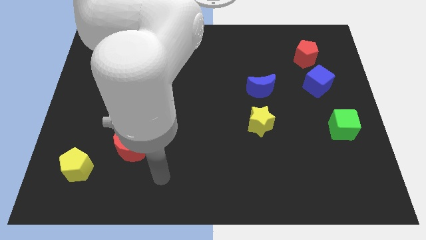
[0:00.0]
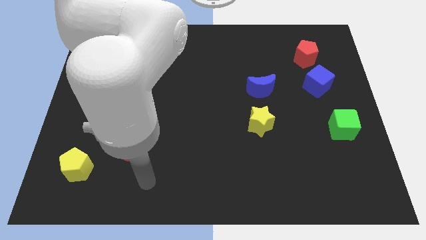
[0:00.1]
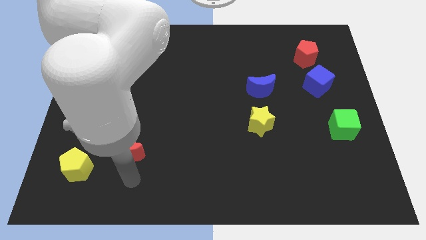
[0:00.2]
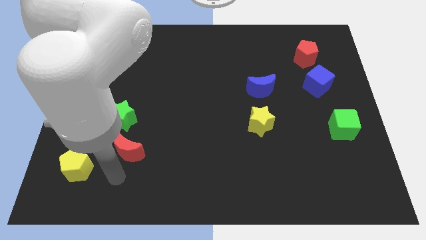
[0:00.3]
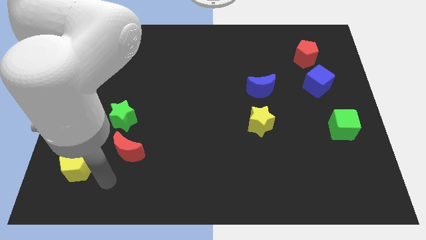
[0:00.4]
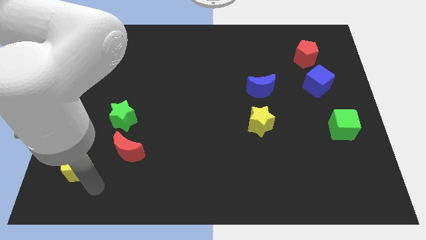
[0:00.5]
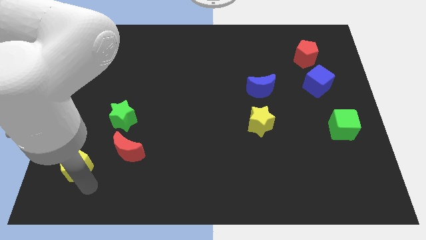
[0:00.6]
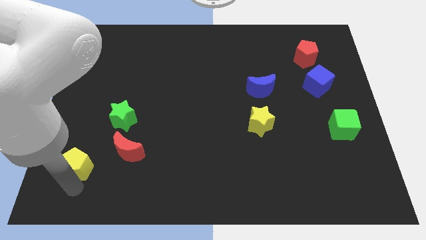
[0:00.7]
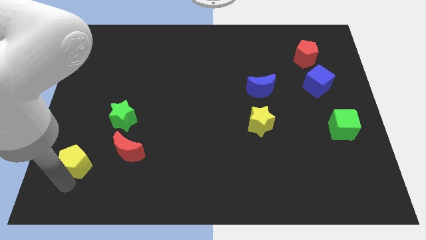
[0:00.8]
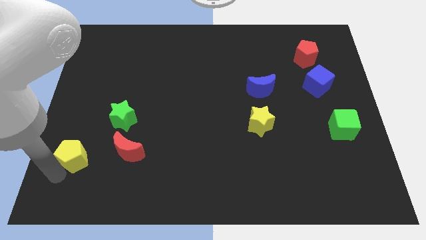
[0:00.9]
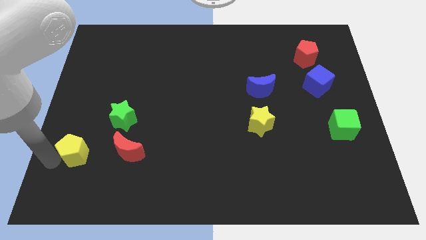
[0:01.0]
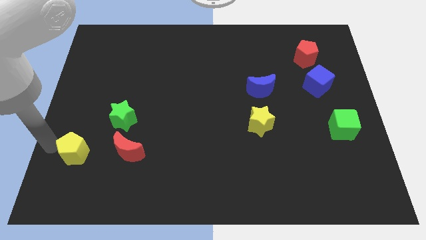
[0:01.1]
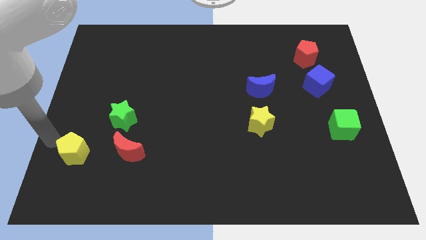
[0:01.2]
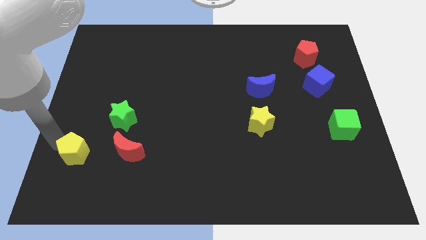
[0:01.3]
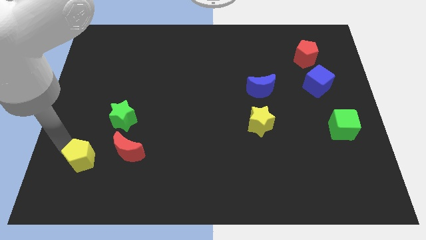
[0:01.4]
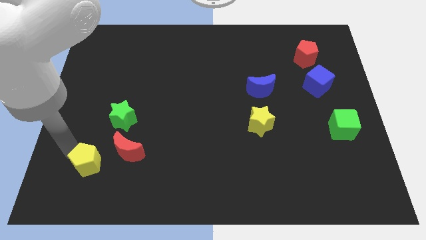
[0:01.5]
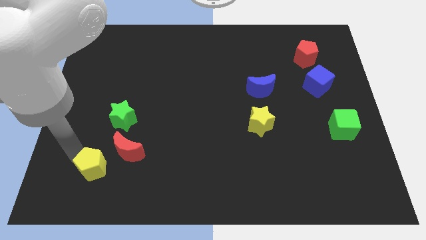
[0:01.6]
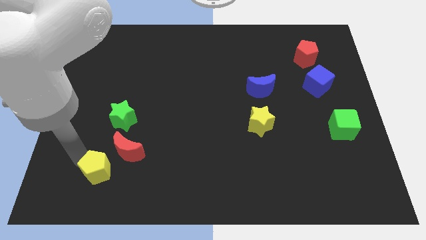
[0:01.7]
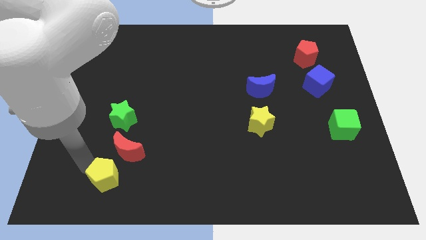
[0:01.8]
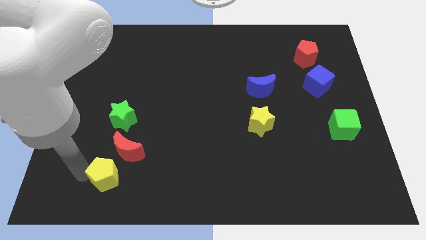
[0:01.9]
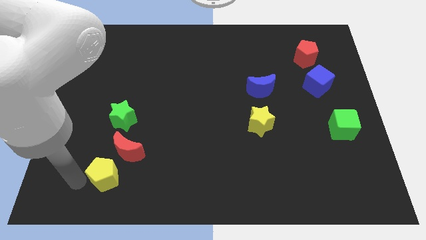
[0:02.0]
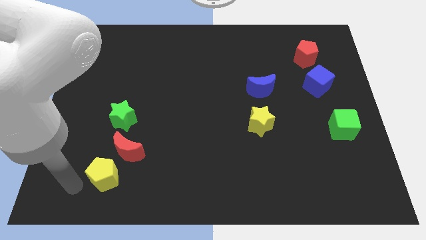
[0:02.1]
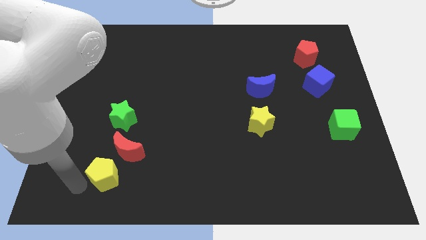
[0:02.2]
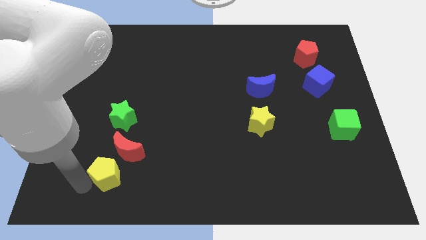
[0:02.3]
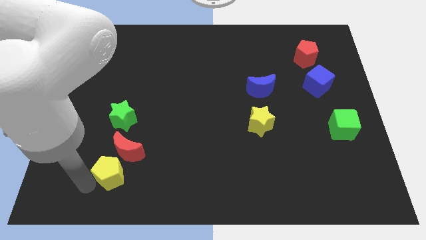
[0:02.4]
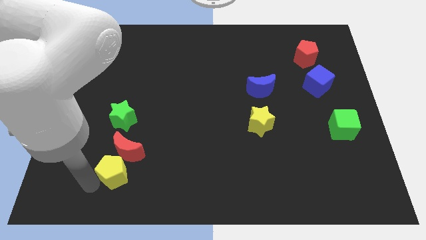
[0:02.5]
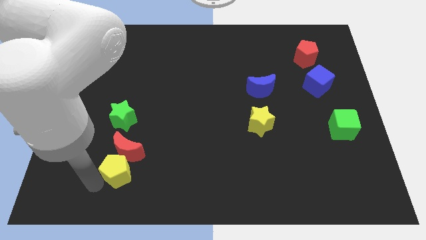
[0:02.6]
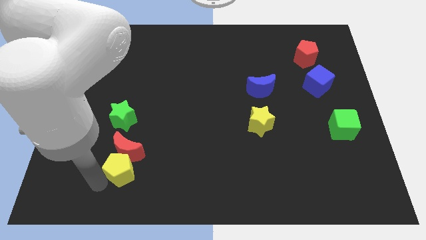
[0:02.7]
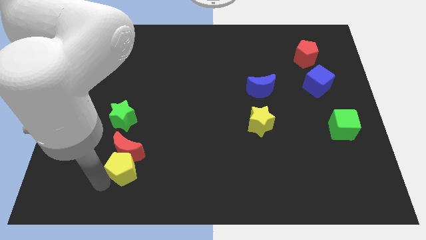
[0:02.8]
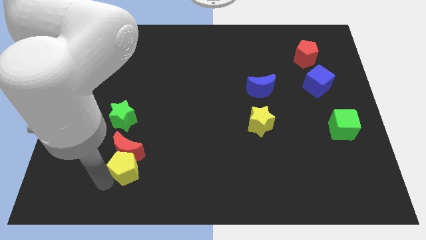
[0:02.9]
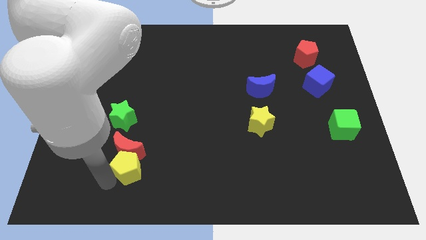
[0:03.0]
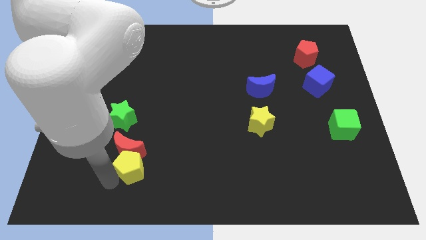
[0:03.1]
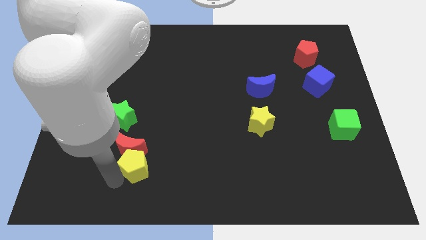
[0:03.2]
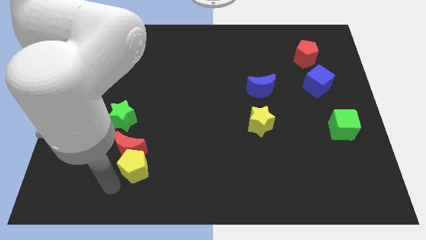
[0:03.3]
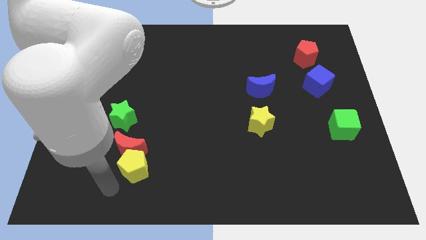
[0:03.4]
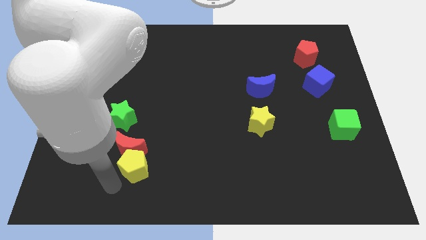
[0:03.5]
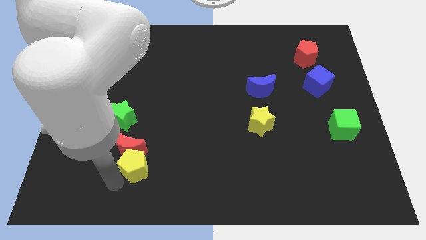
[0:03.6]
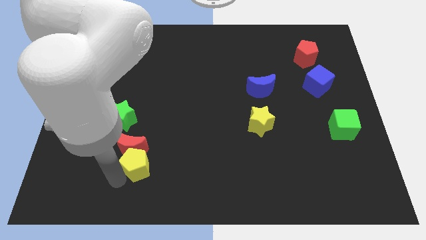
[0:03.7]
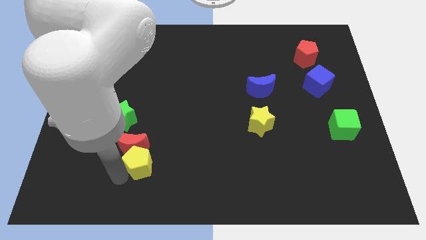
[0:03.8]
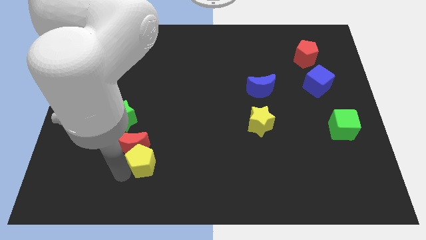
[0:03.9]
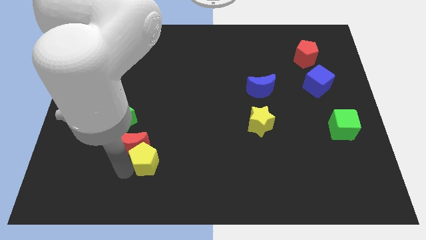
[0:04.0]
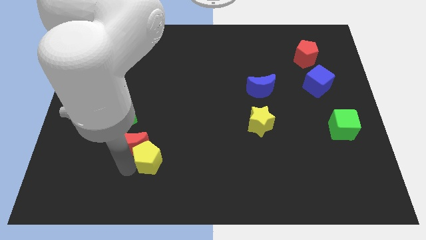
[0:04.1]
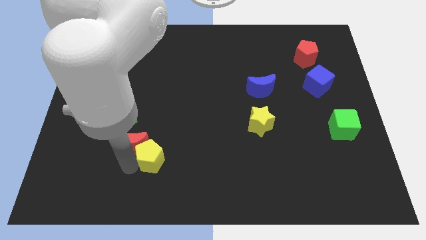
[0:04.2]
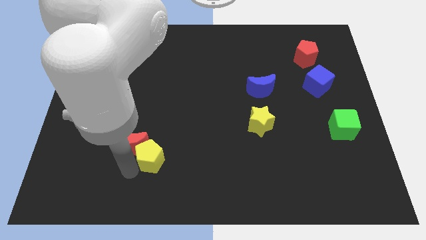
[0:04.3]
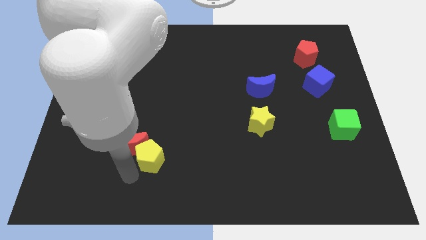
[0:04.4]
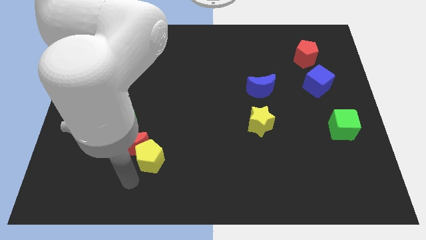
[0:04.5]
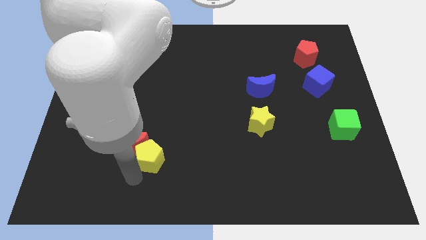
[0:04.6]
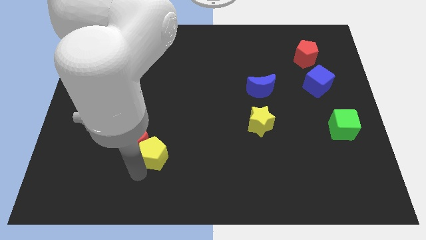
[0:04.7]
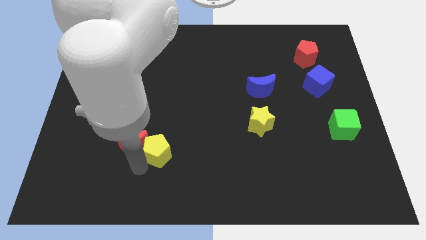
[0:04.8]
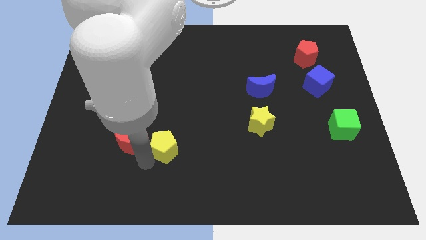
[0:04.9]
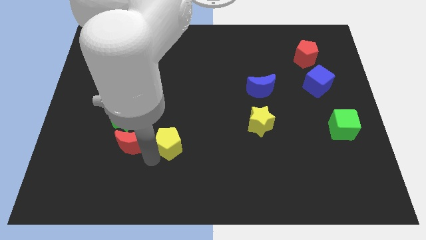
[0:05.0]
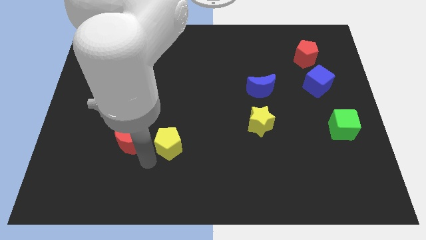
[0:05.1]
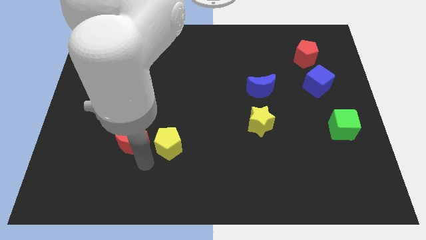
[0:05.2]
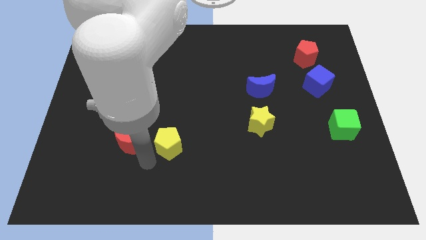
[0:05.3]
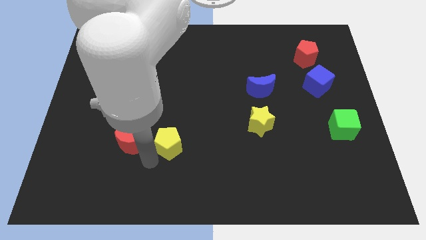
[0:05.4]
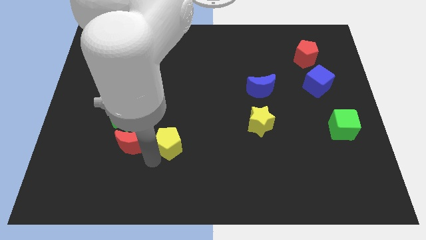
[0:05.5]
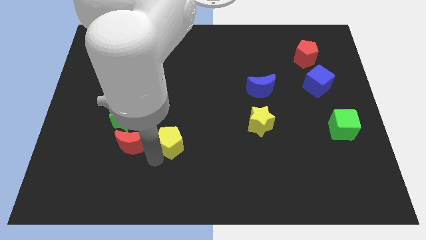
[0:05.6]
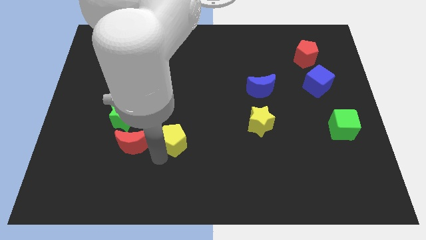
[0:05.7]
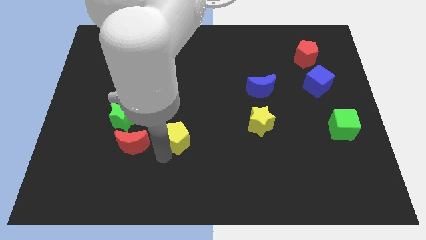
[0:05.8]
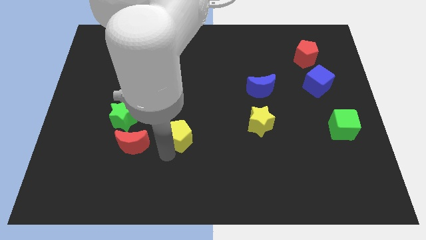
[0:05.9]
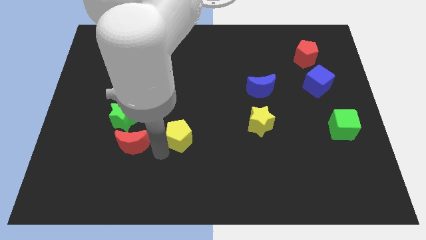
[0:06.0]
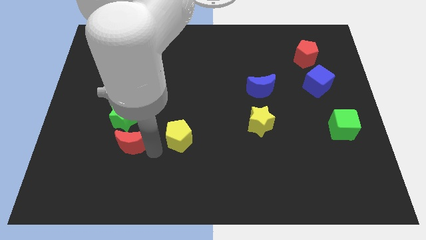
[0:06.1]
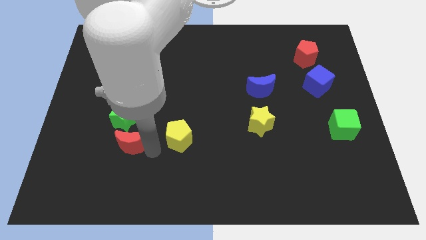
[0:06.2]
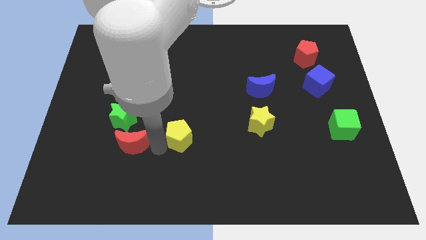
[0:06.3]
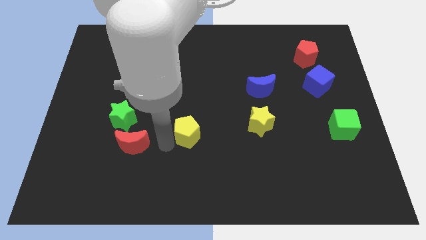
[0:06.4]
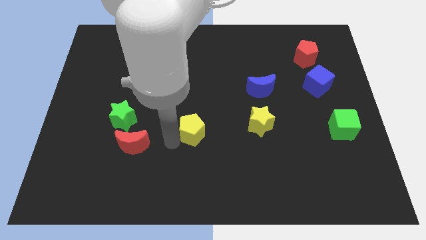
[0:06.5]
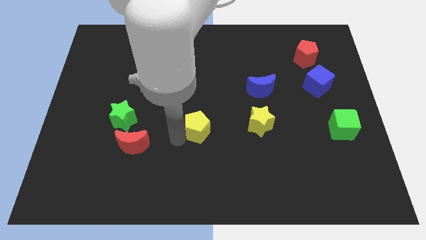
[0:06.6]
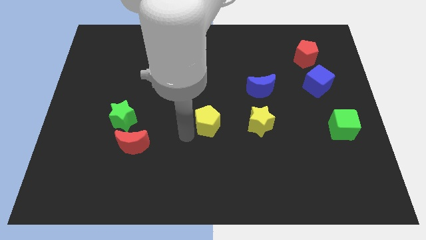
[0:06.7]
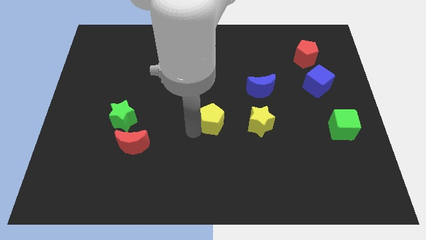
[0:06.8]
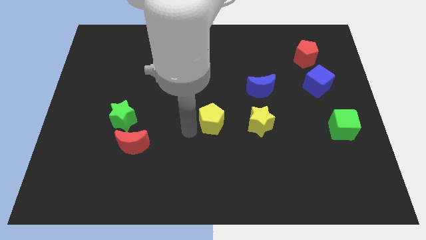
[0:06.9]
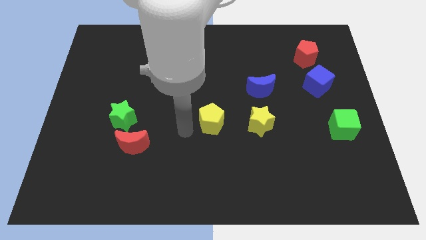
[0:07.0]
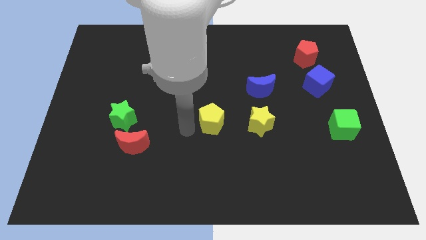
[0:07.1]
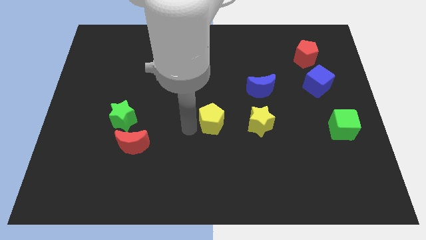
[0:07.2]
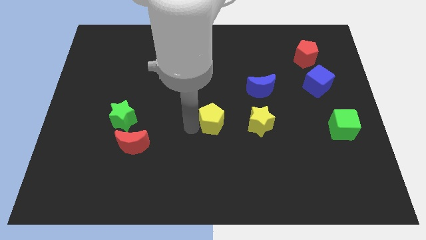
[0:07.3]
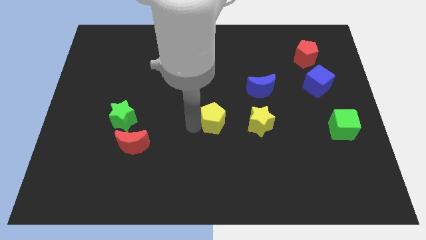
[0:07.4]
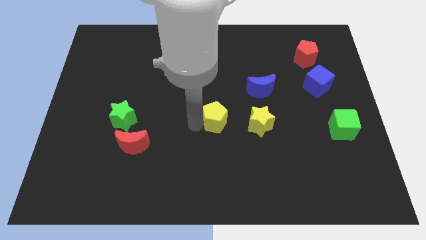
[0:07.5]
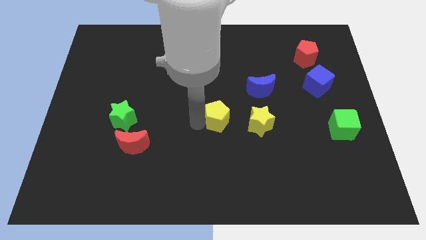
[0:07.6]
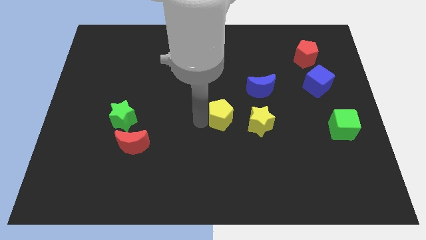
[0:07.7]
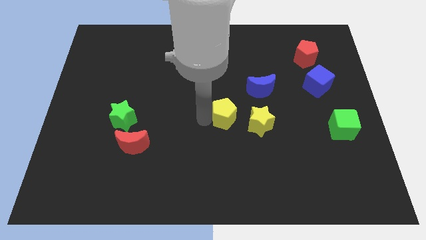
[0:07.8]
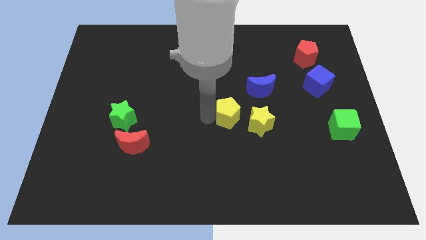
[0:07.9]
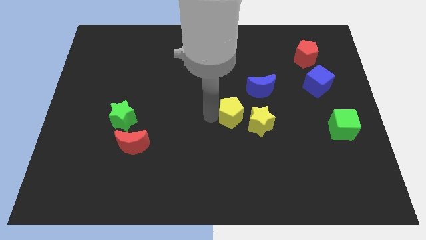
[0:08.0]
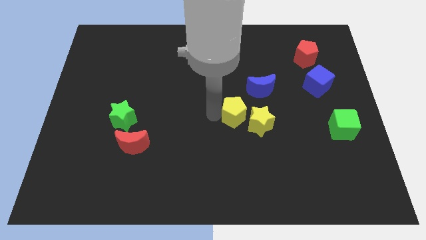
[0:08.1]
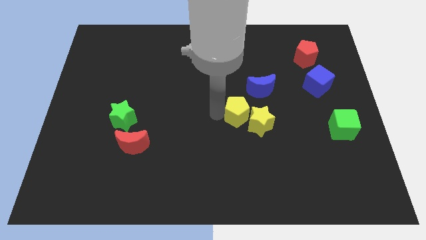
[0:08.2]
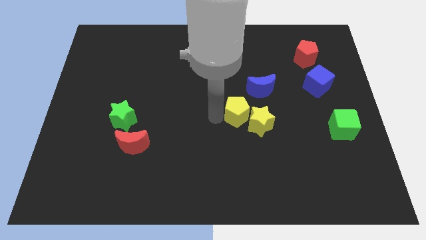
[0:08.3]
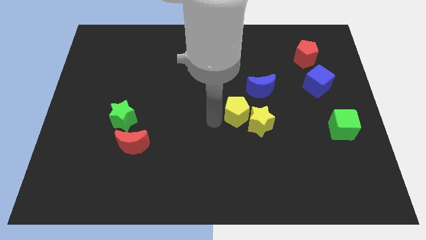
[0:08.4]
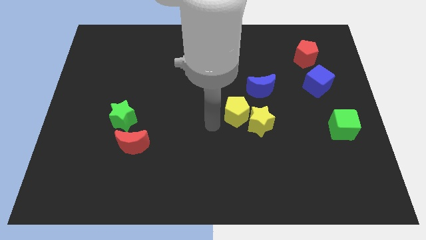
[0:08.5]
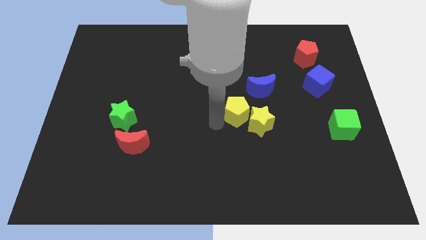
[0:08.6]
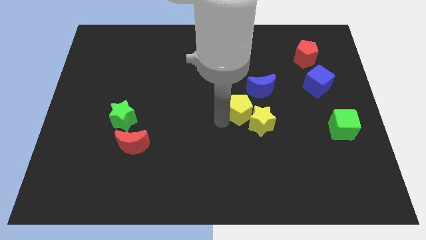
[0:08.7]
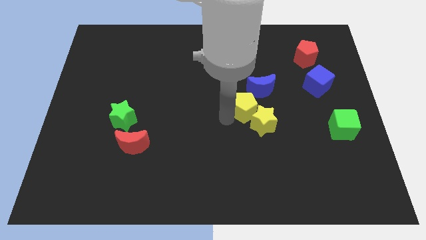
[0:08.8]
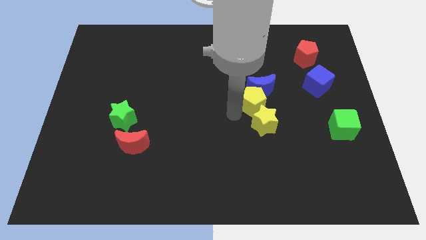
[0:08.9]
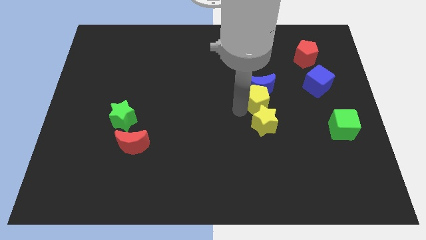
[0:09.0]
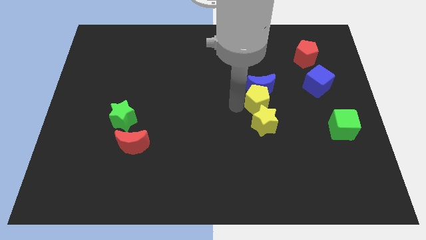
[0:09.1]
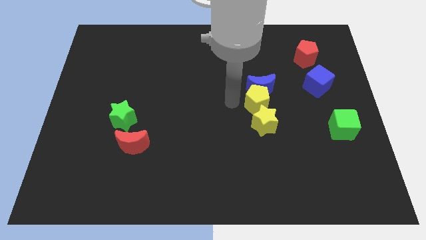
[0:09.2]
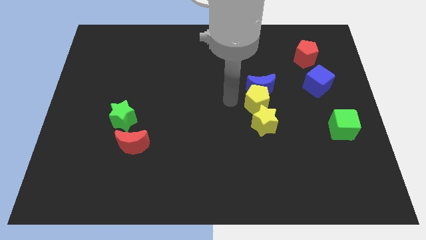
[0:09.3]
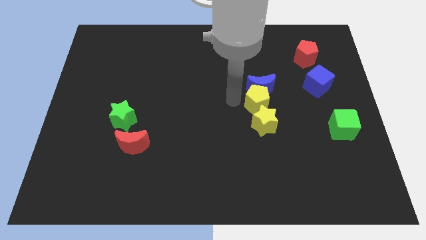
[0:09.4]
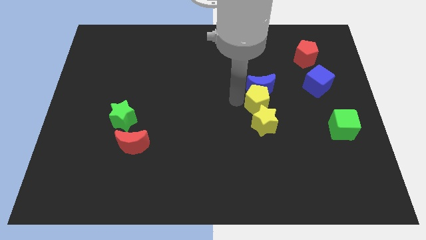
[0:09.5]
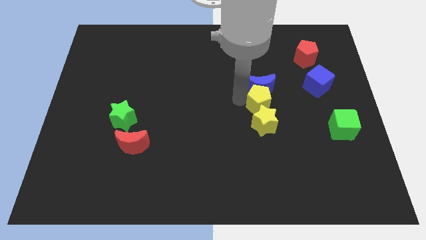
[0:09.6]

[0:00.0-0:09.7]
slide the yellow pentagon diagonally up and to the right of the yellow star
